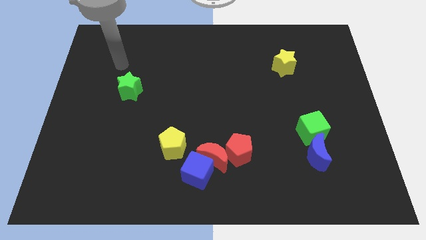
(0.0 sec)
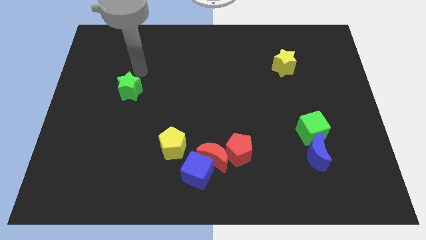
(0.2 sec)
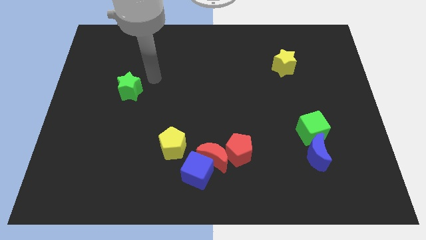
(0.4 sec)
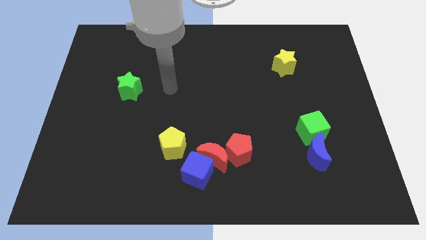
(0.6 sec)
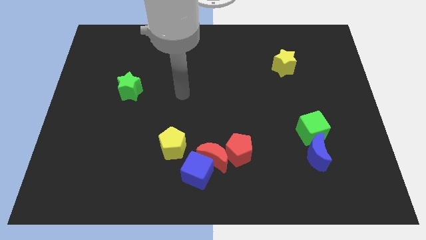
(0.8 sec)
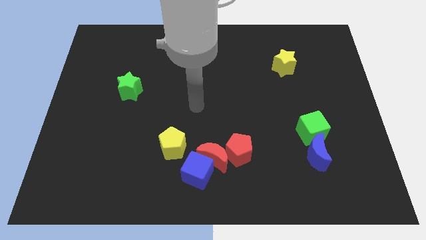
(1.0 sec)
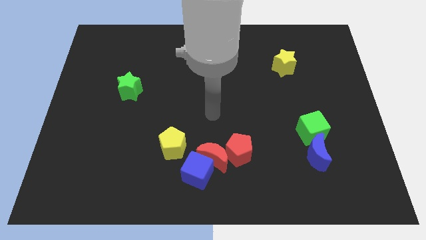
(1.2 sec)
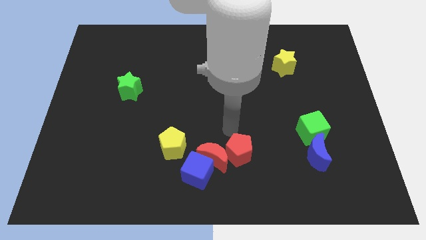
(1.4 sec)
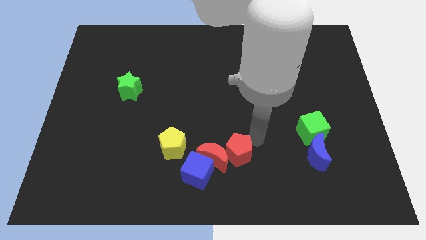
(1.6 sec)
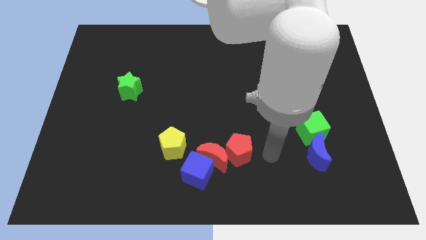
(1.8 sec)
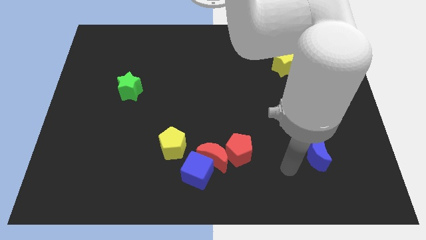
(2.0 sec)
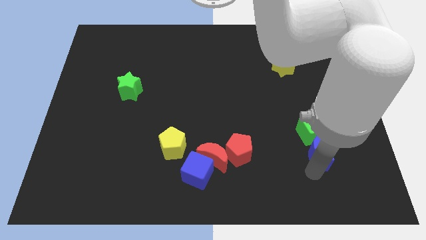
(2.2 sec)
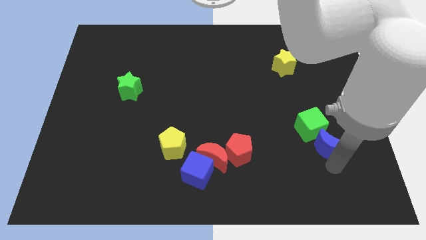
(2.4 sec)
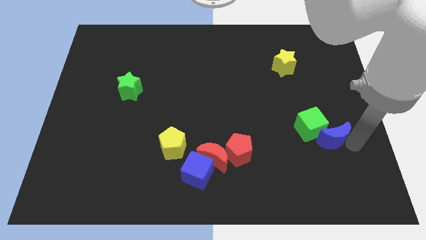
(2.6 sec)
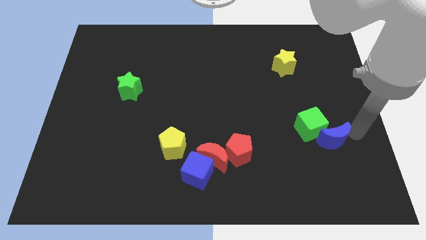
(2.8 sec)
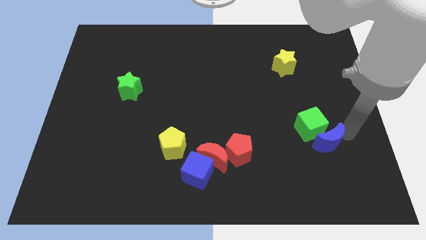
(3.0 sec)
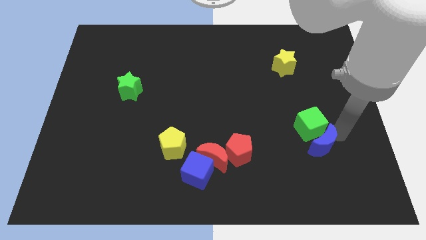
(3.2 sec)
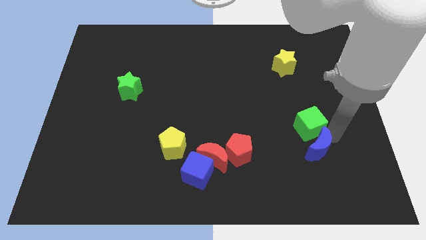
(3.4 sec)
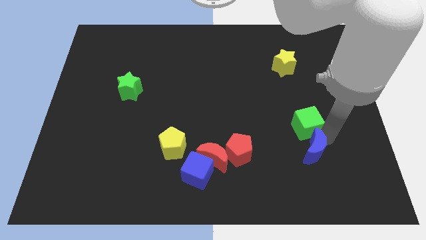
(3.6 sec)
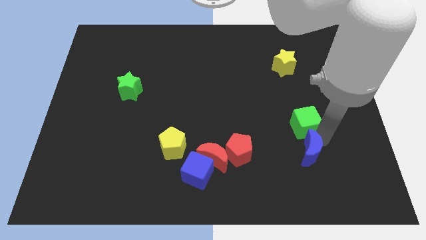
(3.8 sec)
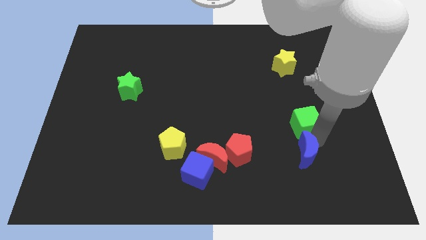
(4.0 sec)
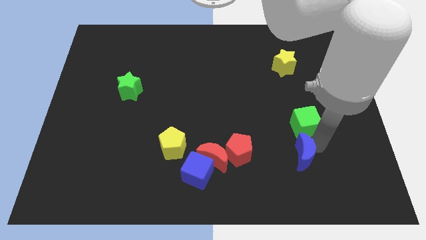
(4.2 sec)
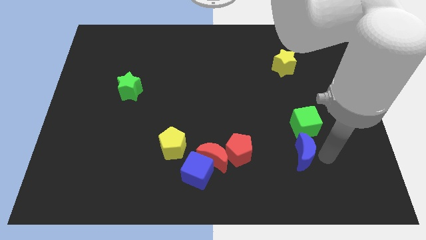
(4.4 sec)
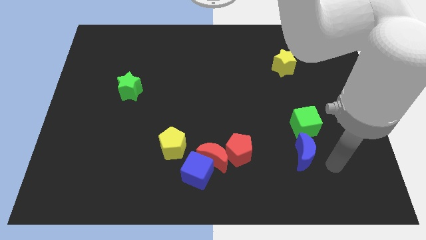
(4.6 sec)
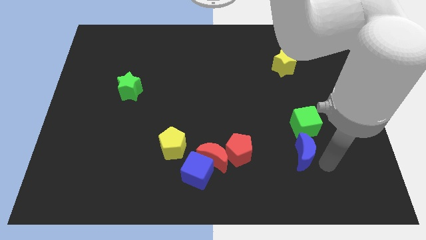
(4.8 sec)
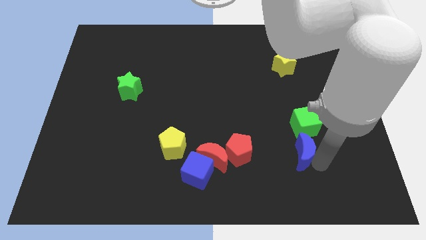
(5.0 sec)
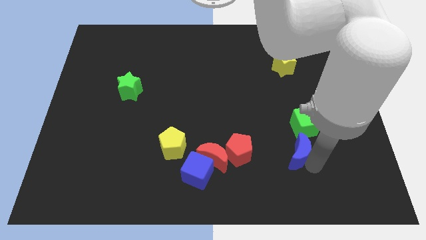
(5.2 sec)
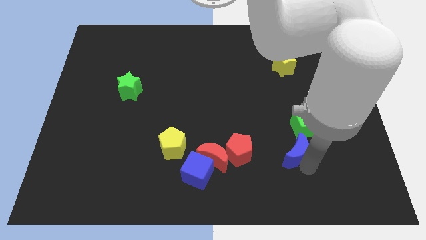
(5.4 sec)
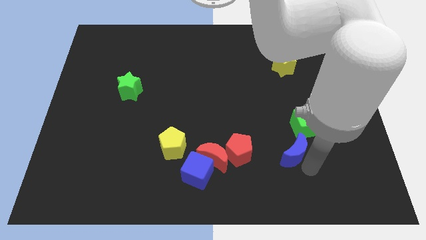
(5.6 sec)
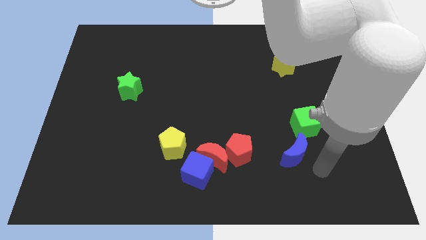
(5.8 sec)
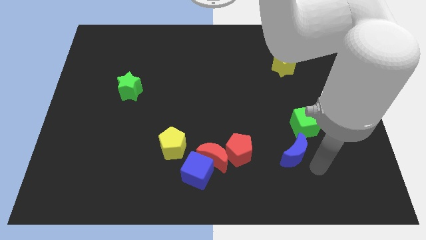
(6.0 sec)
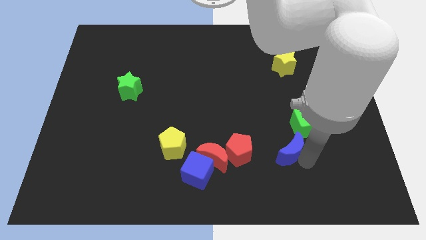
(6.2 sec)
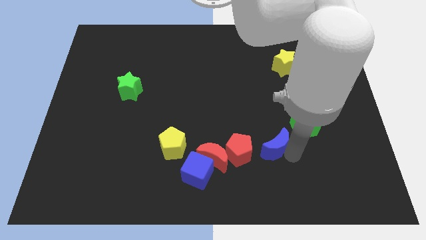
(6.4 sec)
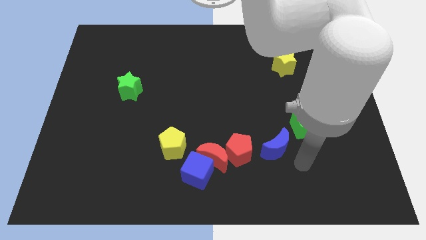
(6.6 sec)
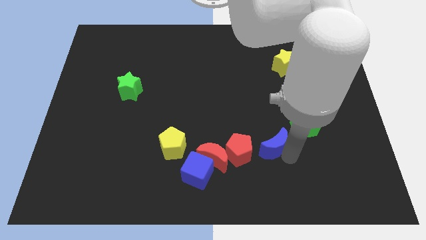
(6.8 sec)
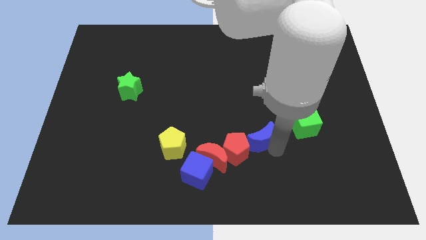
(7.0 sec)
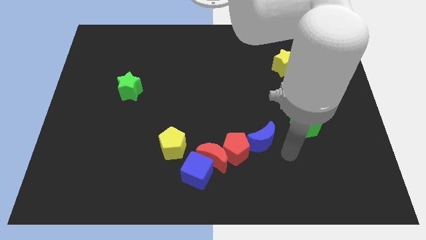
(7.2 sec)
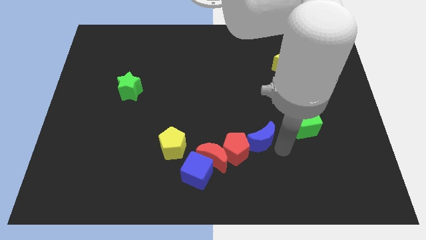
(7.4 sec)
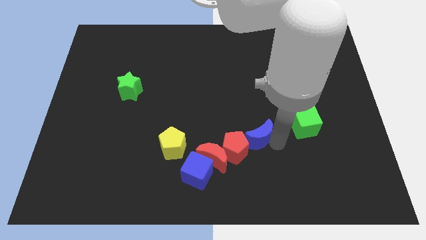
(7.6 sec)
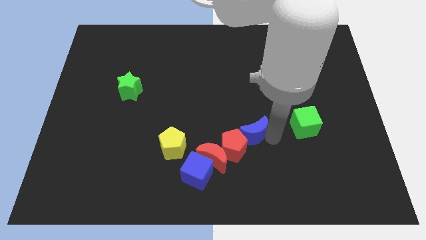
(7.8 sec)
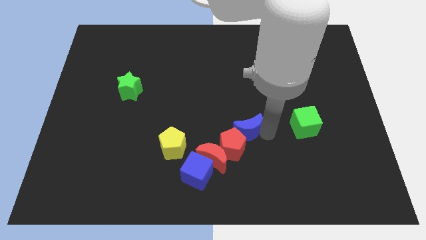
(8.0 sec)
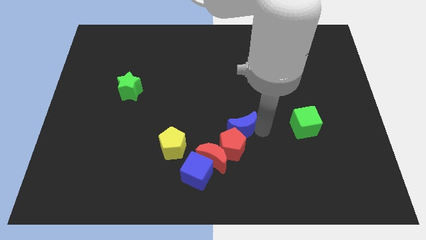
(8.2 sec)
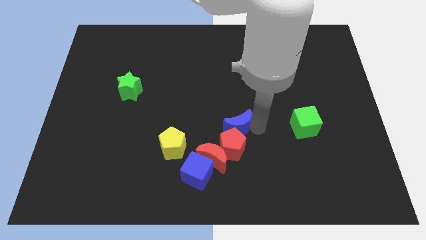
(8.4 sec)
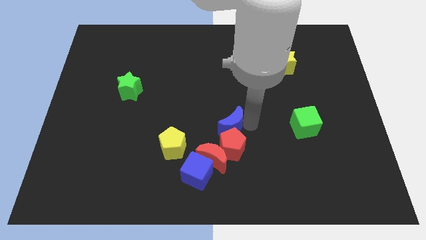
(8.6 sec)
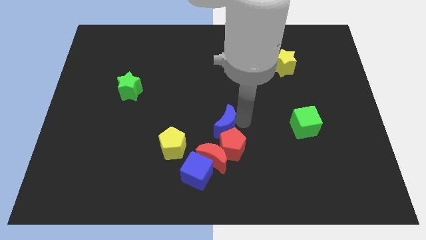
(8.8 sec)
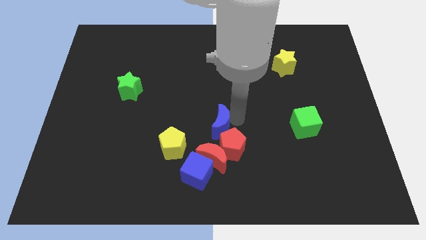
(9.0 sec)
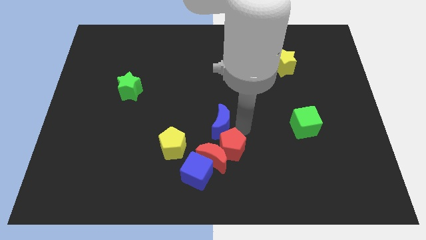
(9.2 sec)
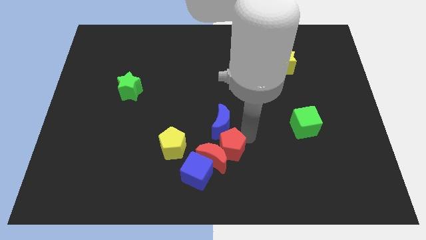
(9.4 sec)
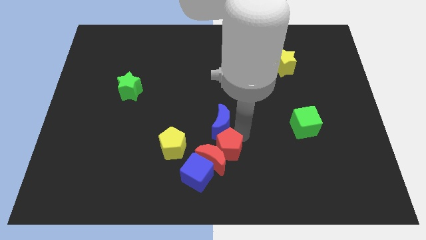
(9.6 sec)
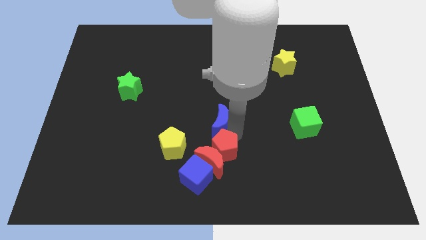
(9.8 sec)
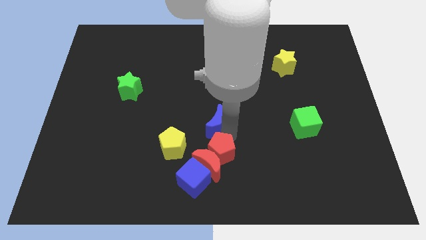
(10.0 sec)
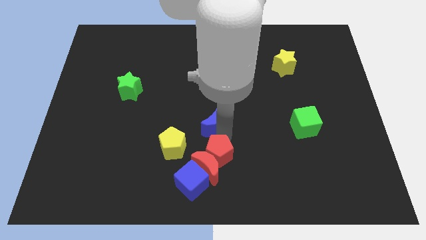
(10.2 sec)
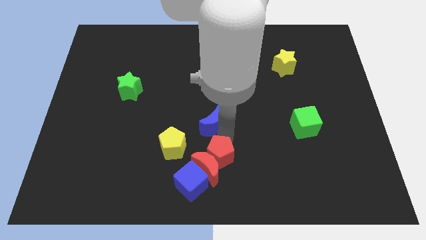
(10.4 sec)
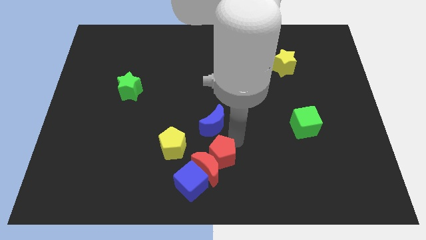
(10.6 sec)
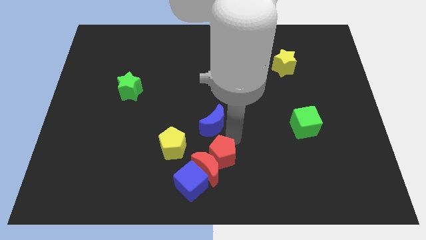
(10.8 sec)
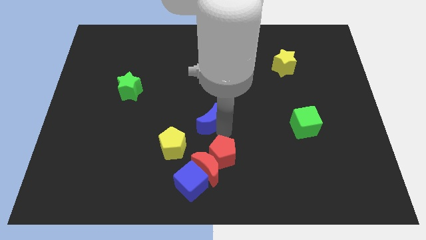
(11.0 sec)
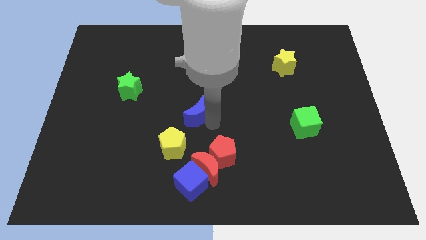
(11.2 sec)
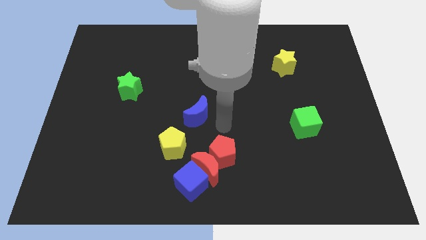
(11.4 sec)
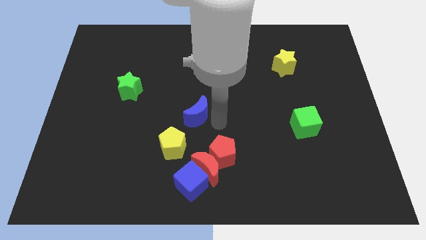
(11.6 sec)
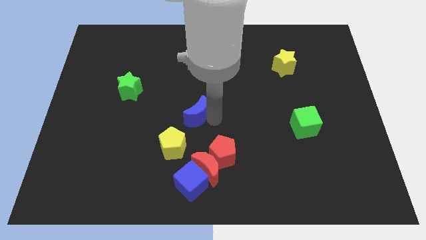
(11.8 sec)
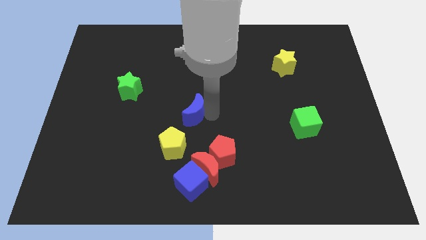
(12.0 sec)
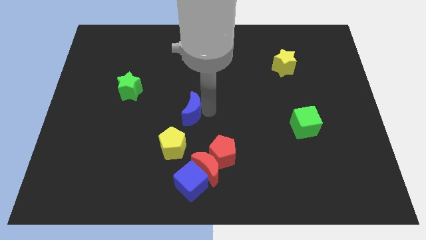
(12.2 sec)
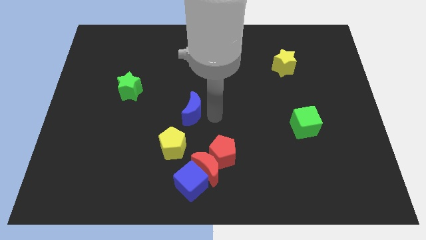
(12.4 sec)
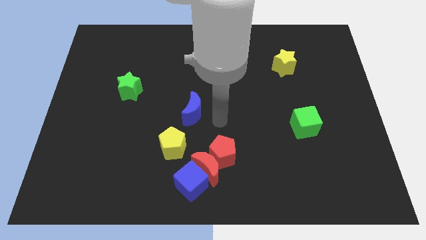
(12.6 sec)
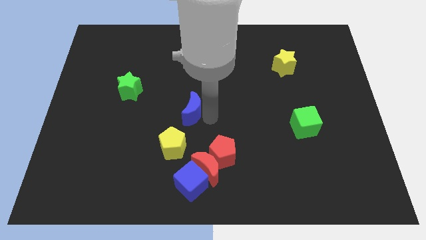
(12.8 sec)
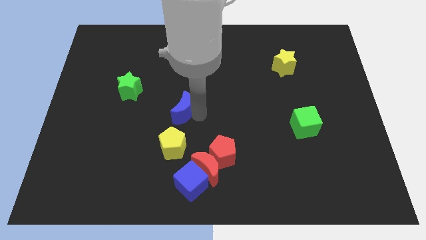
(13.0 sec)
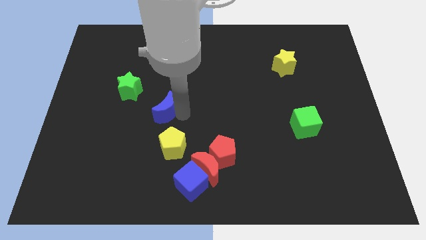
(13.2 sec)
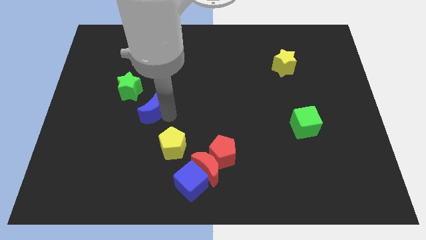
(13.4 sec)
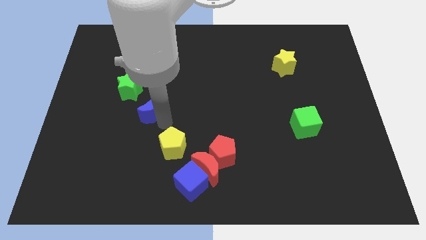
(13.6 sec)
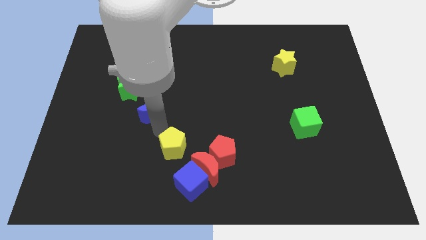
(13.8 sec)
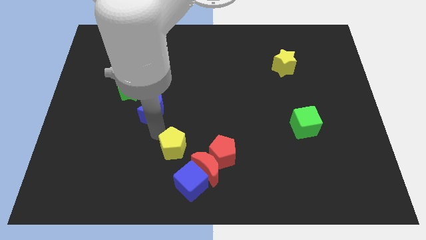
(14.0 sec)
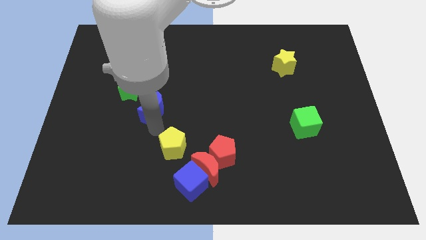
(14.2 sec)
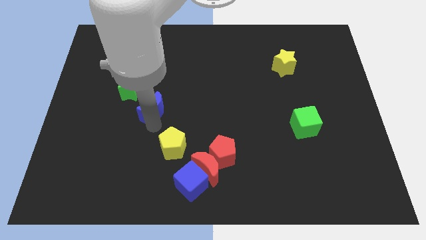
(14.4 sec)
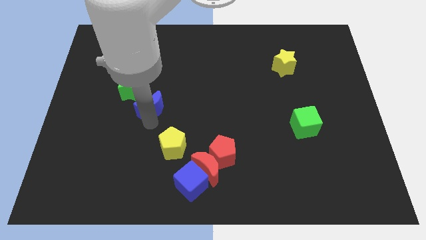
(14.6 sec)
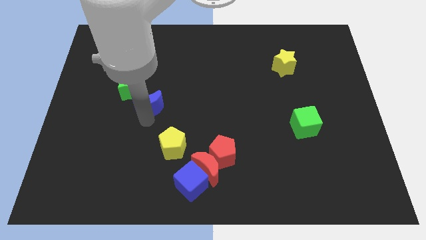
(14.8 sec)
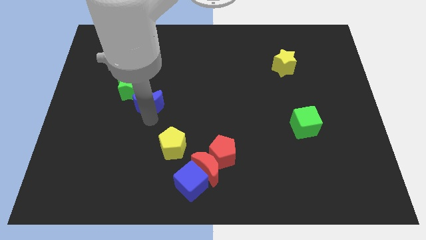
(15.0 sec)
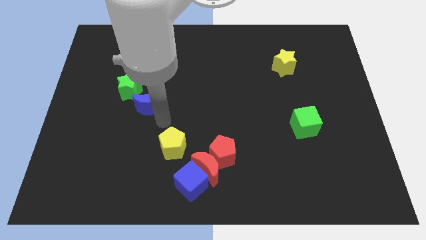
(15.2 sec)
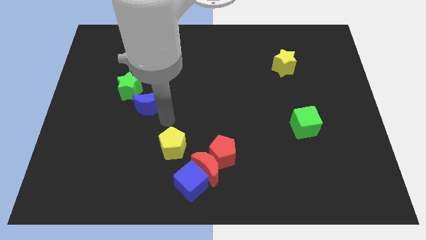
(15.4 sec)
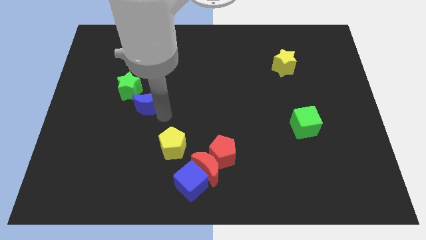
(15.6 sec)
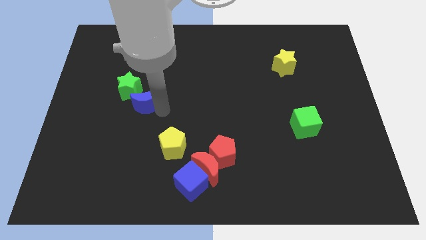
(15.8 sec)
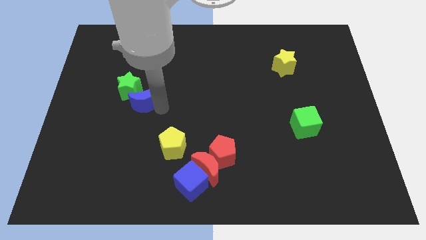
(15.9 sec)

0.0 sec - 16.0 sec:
put the blue moon close to the green star
